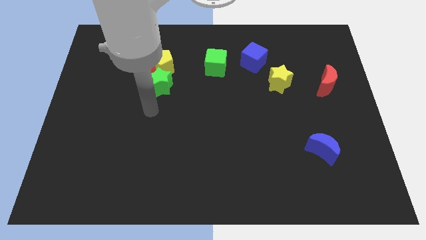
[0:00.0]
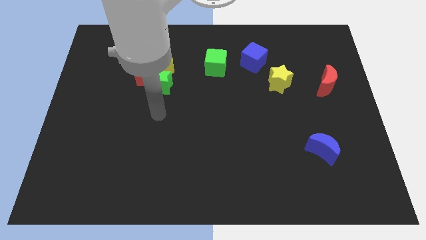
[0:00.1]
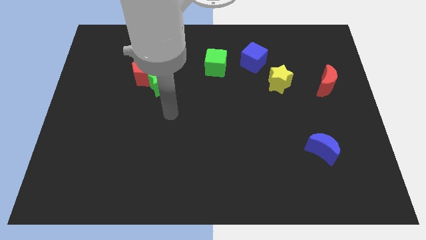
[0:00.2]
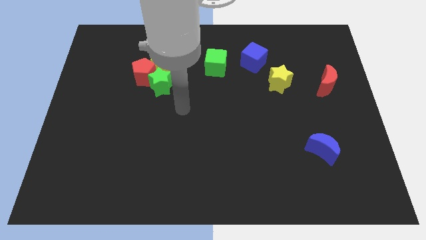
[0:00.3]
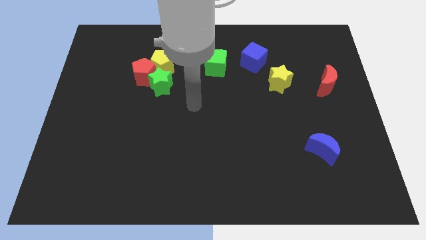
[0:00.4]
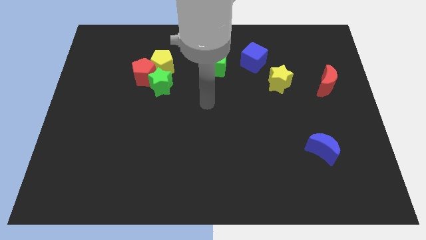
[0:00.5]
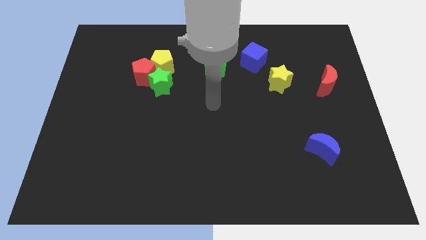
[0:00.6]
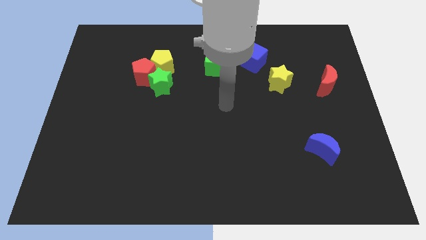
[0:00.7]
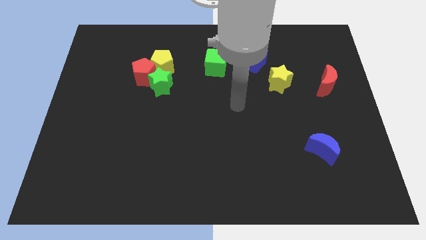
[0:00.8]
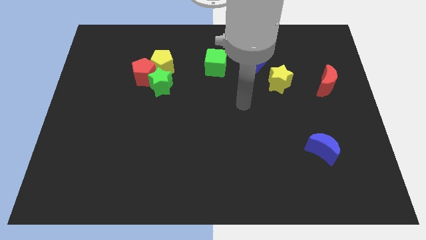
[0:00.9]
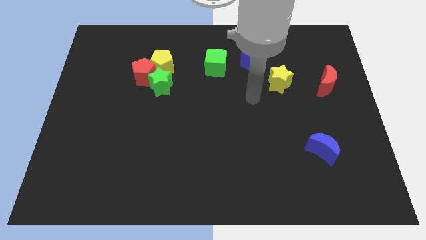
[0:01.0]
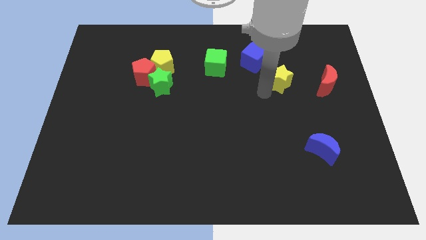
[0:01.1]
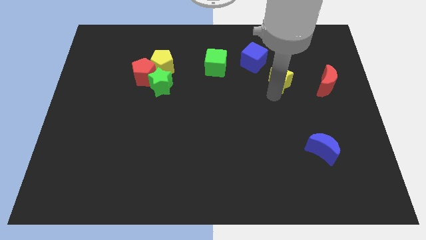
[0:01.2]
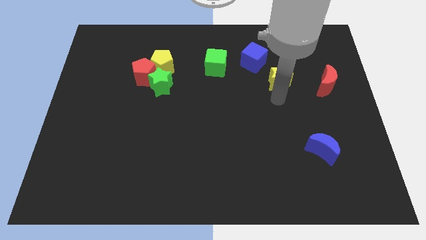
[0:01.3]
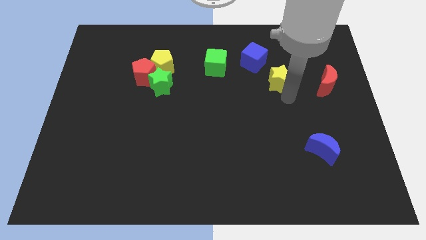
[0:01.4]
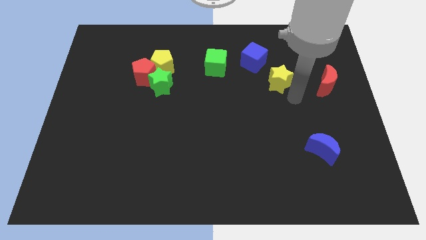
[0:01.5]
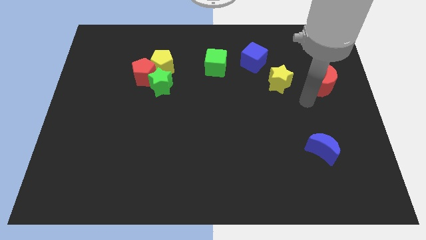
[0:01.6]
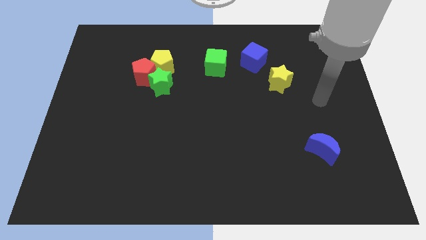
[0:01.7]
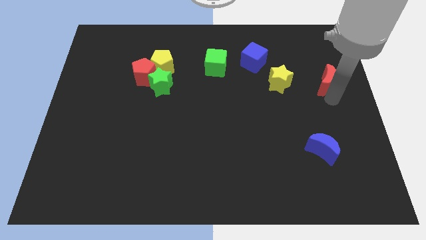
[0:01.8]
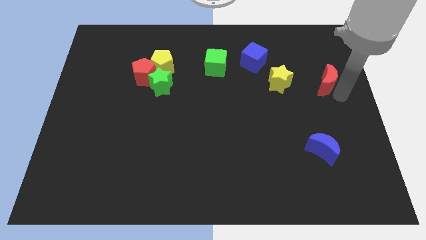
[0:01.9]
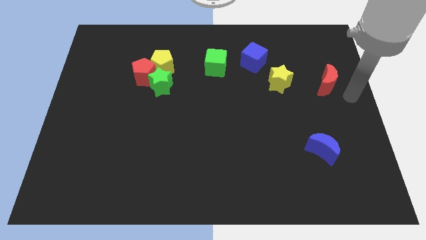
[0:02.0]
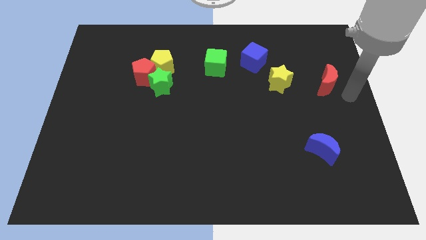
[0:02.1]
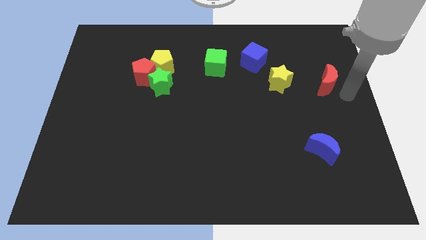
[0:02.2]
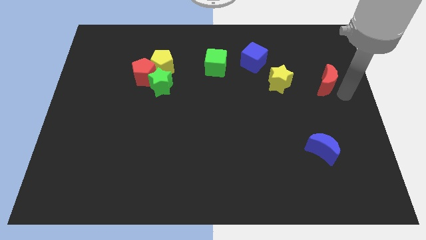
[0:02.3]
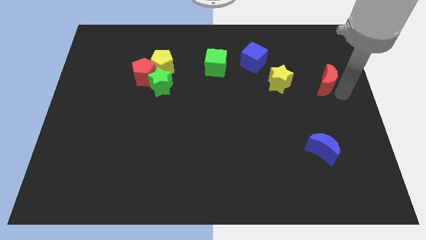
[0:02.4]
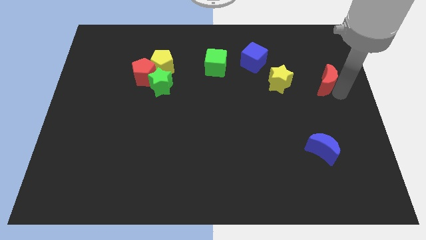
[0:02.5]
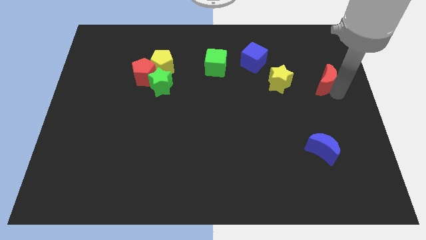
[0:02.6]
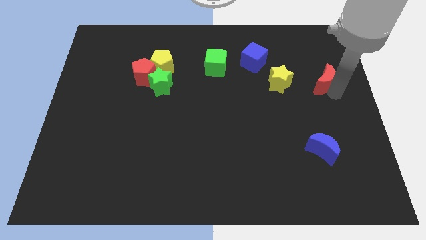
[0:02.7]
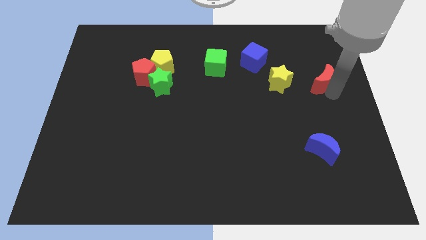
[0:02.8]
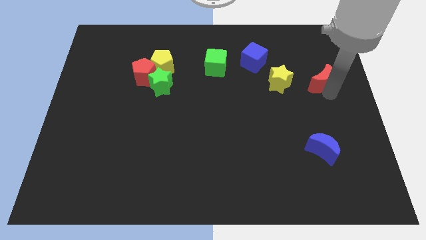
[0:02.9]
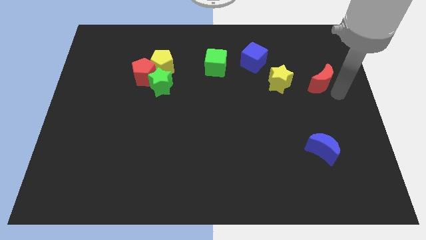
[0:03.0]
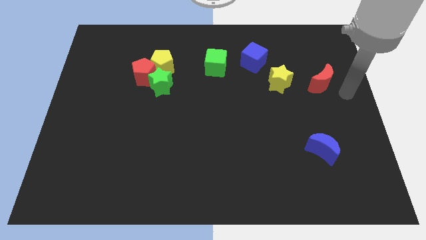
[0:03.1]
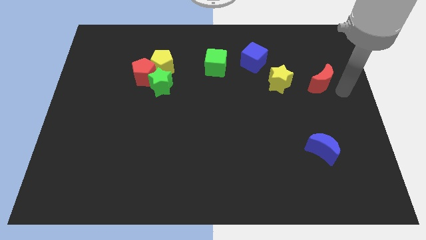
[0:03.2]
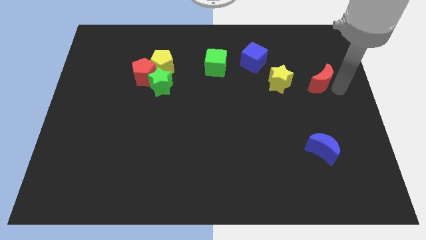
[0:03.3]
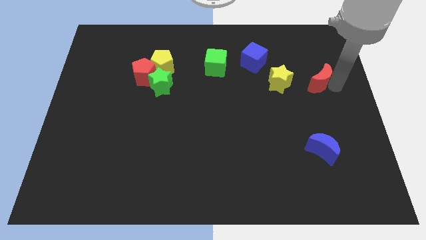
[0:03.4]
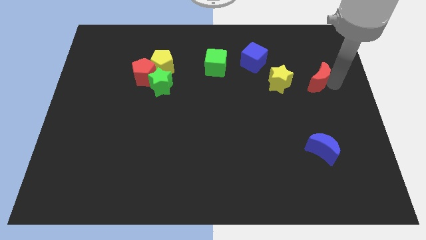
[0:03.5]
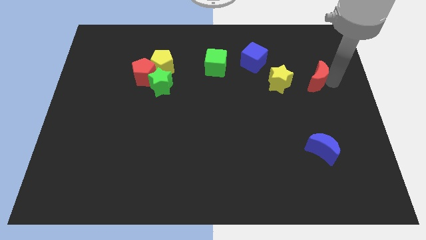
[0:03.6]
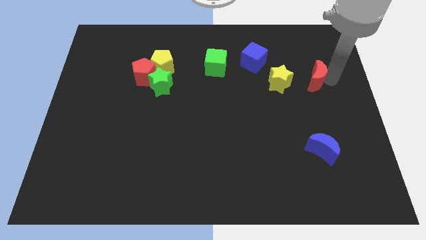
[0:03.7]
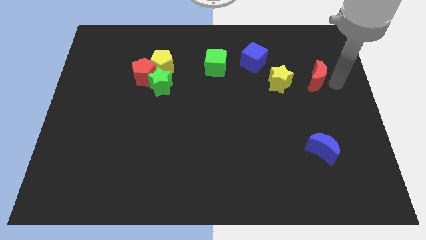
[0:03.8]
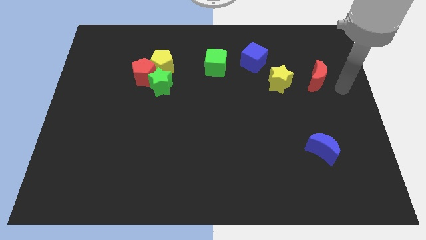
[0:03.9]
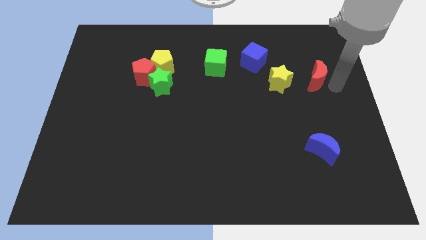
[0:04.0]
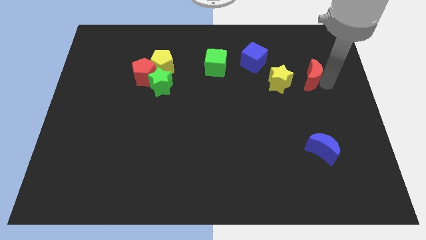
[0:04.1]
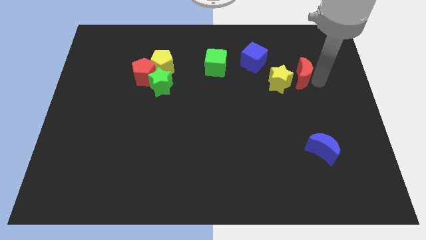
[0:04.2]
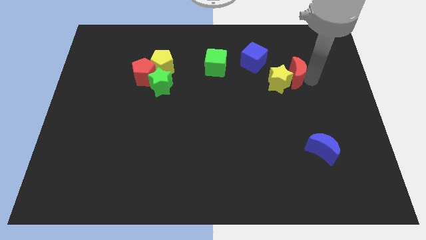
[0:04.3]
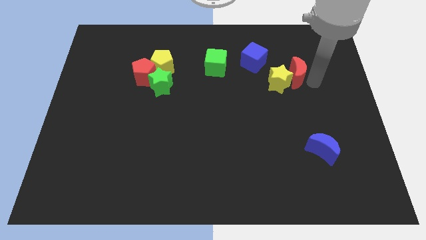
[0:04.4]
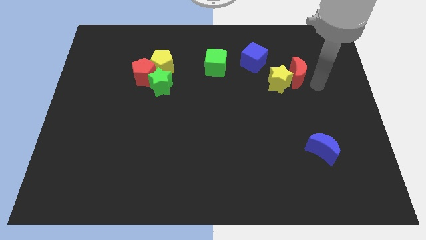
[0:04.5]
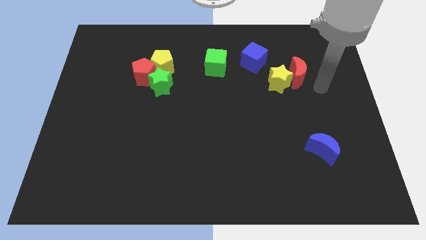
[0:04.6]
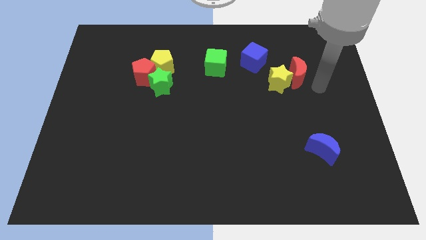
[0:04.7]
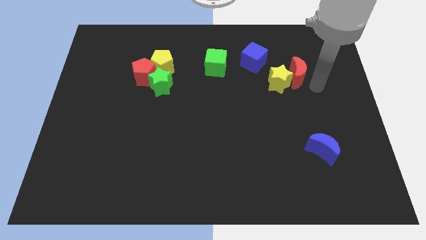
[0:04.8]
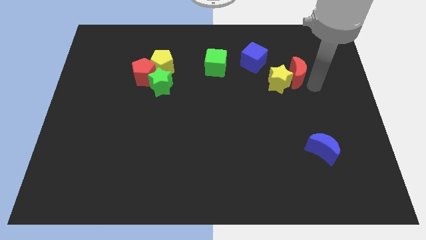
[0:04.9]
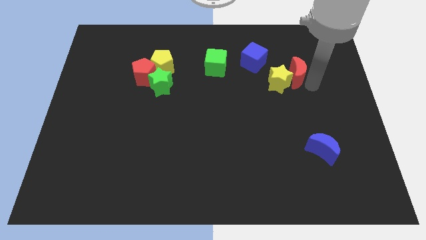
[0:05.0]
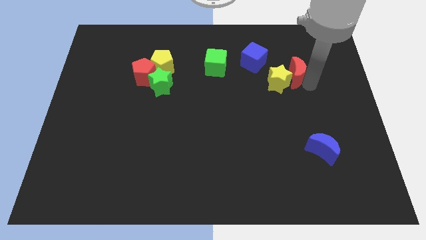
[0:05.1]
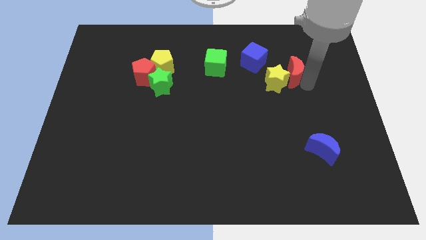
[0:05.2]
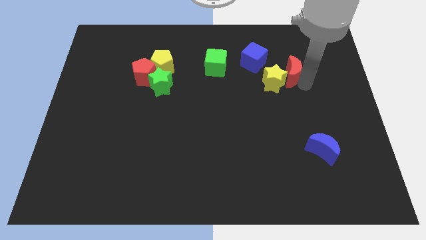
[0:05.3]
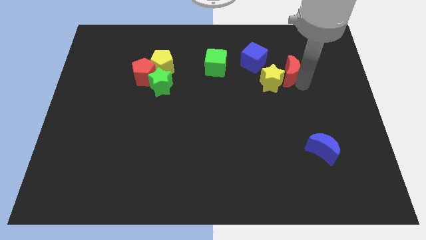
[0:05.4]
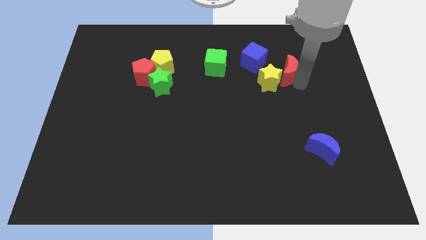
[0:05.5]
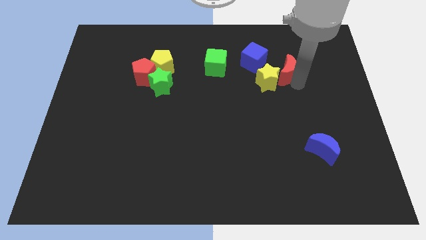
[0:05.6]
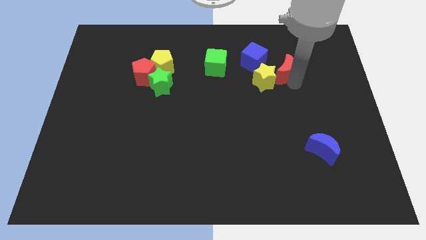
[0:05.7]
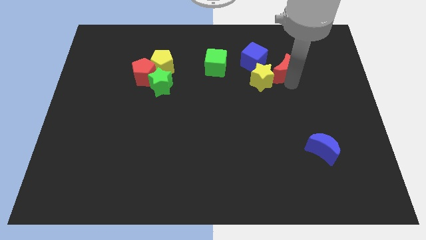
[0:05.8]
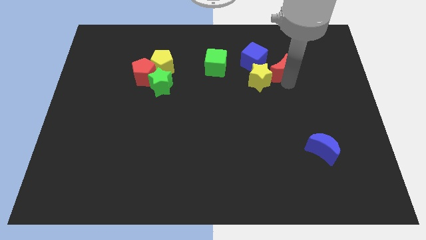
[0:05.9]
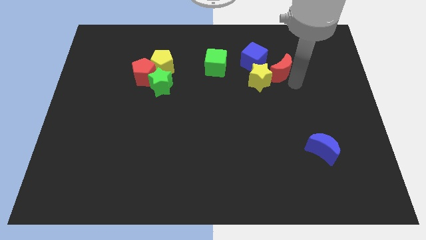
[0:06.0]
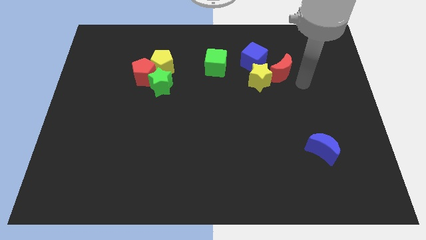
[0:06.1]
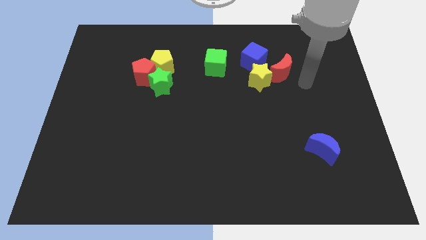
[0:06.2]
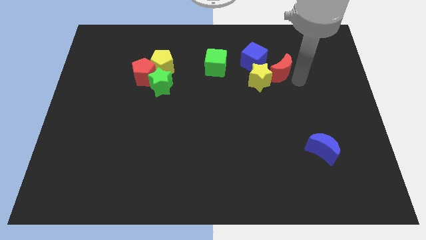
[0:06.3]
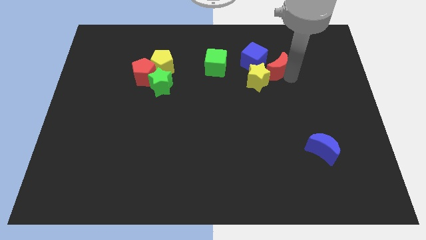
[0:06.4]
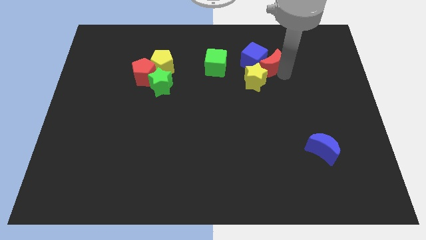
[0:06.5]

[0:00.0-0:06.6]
slide the red moon to the blue cube

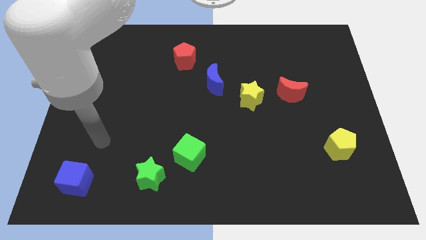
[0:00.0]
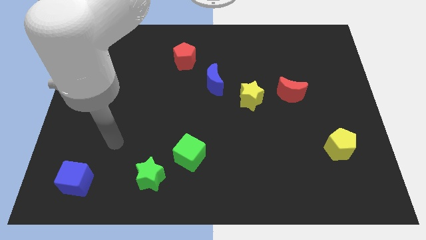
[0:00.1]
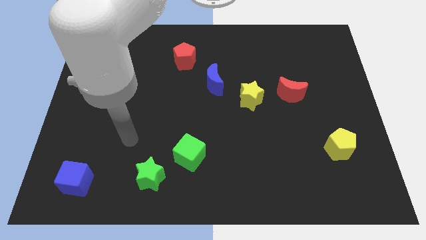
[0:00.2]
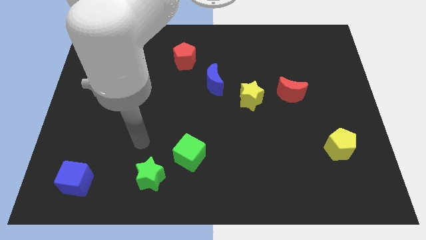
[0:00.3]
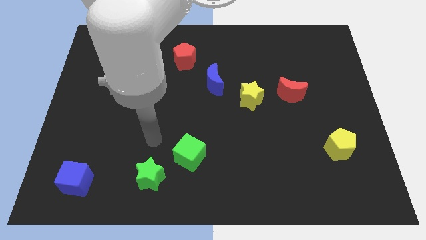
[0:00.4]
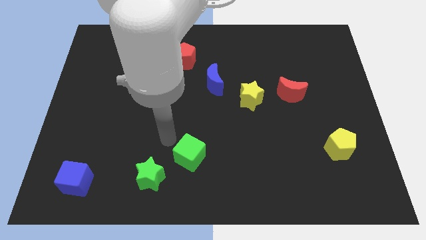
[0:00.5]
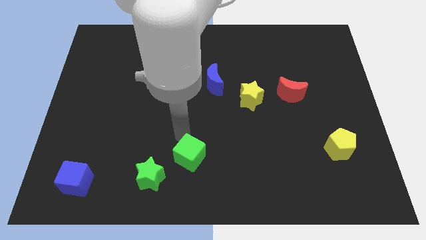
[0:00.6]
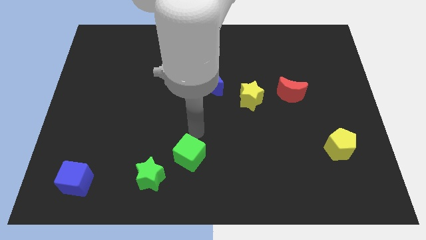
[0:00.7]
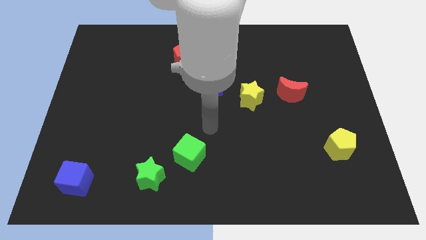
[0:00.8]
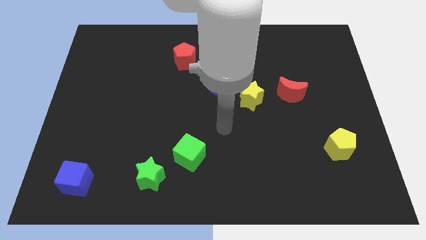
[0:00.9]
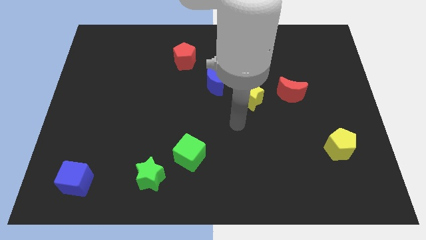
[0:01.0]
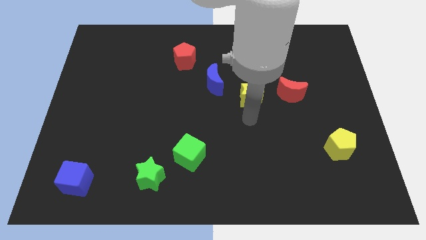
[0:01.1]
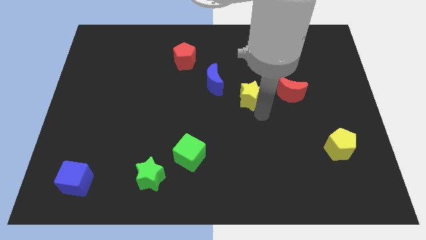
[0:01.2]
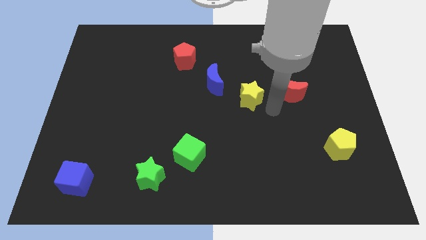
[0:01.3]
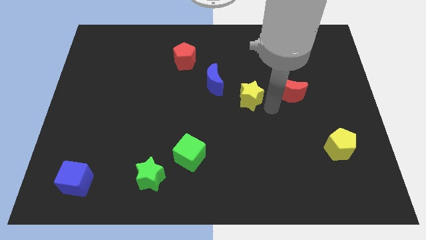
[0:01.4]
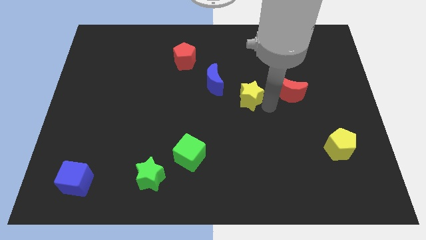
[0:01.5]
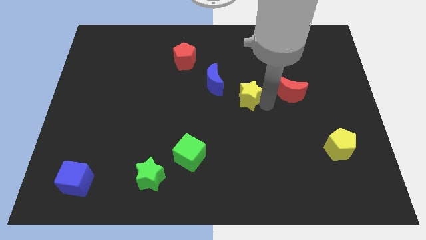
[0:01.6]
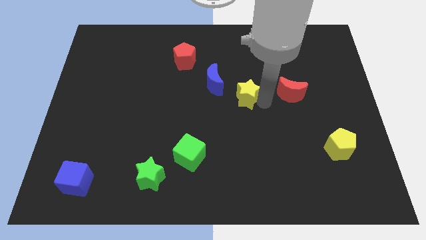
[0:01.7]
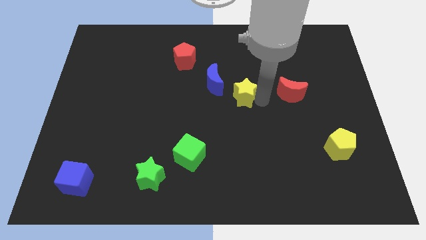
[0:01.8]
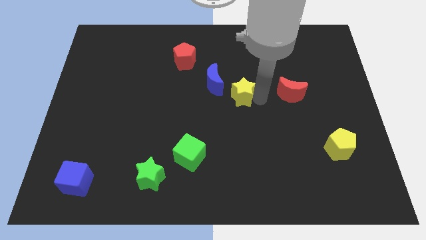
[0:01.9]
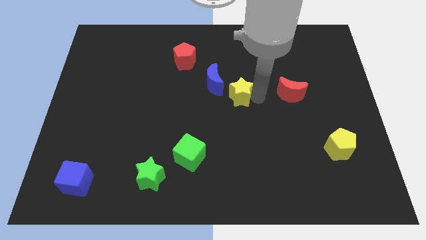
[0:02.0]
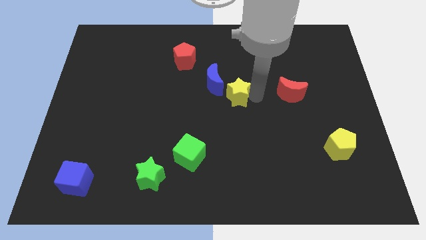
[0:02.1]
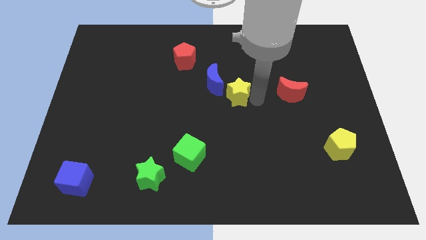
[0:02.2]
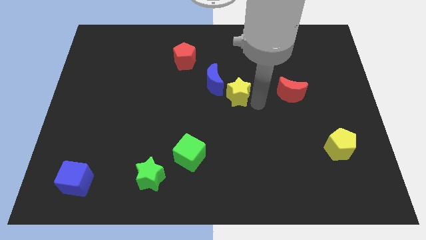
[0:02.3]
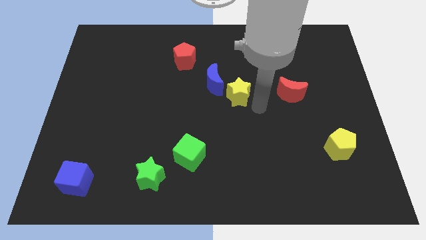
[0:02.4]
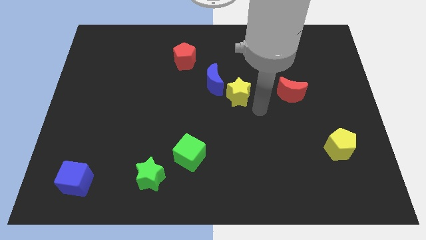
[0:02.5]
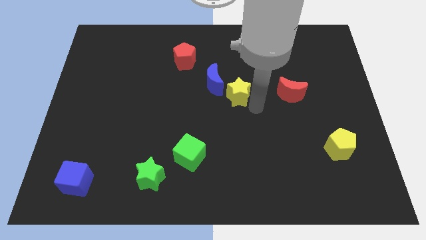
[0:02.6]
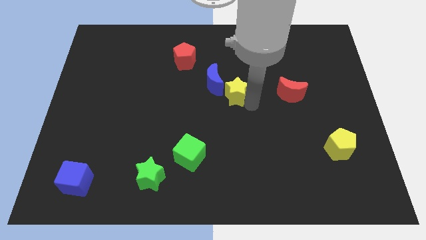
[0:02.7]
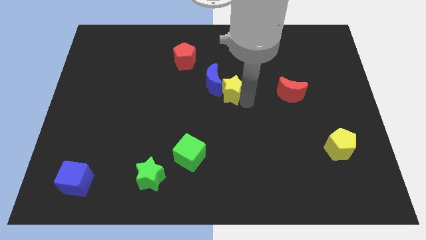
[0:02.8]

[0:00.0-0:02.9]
slide the yellow star towards the blue moon
